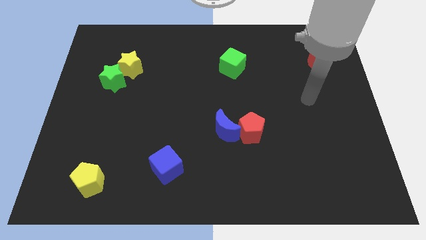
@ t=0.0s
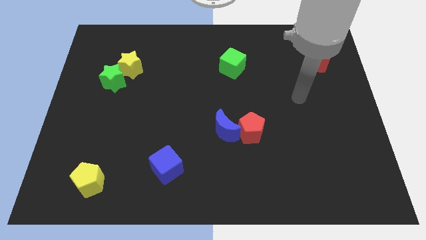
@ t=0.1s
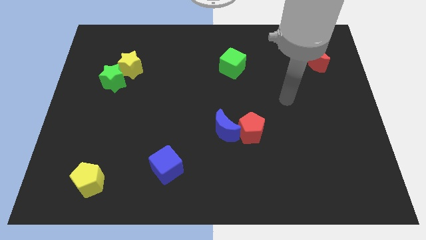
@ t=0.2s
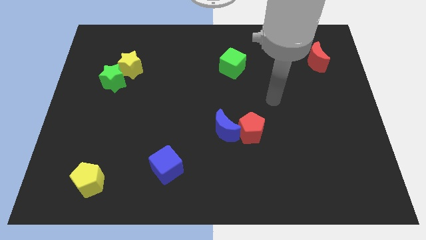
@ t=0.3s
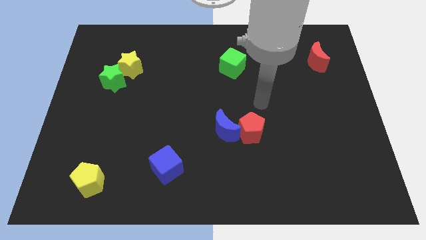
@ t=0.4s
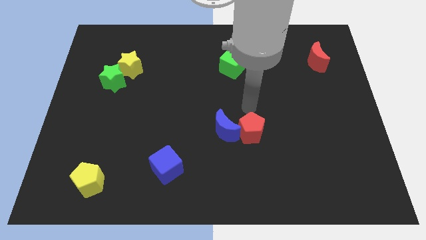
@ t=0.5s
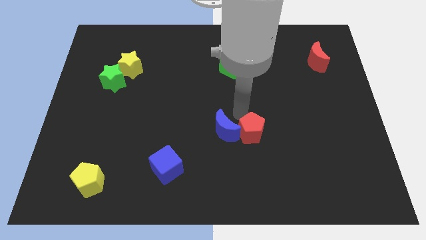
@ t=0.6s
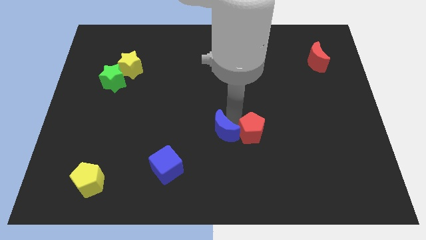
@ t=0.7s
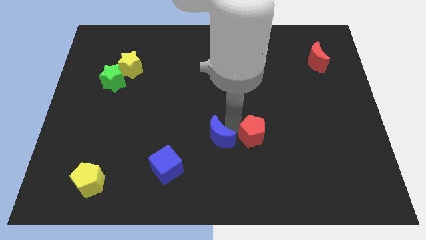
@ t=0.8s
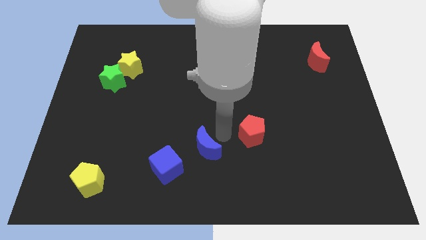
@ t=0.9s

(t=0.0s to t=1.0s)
pull the red pentagon apart from the blue moon

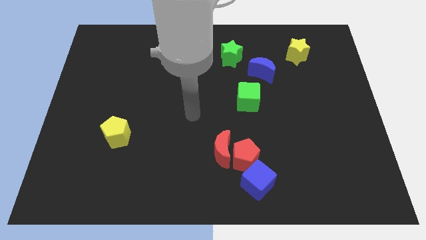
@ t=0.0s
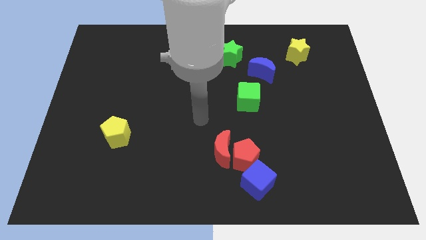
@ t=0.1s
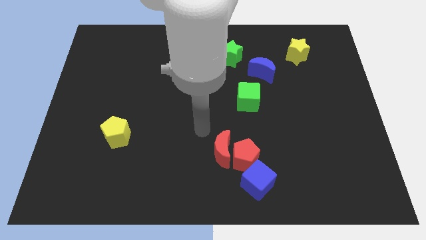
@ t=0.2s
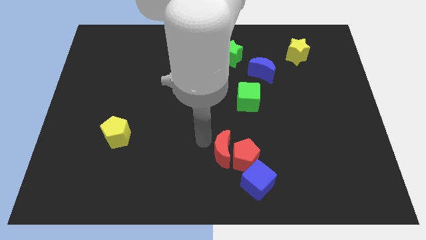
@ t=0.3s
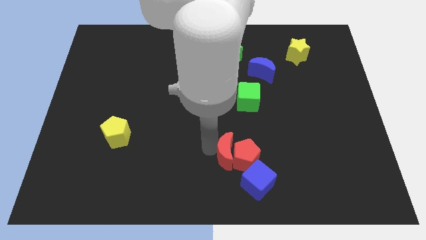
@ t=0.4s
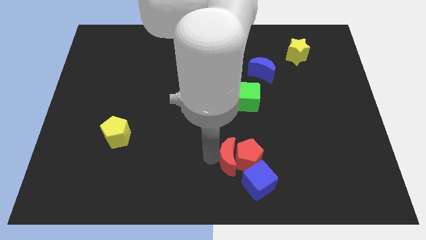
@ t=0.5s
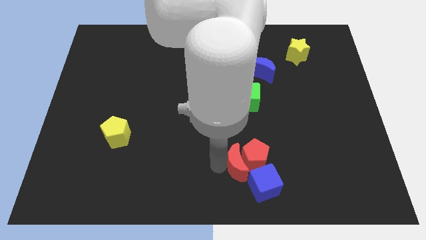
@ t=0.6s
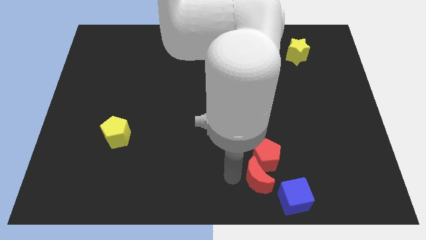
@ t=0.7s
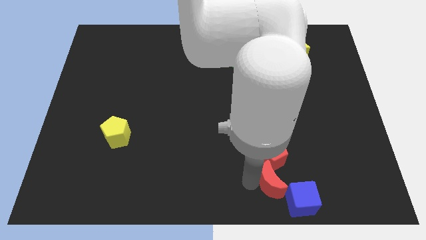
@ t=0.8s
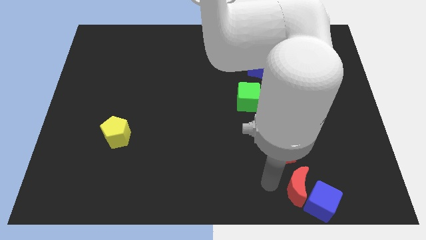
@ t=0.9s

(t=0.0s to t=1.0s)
pull the red pentagon apart from the red moon and blue cube

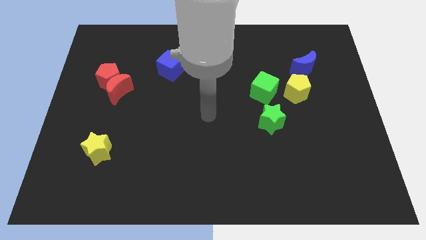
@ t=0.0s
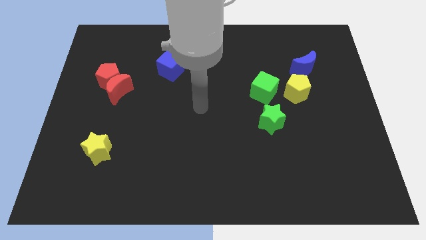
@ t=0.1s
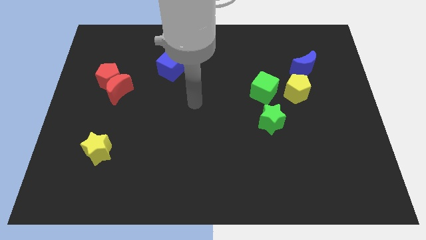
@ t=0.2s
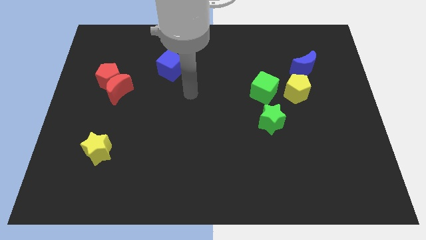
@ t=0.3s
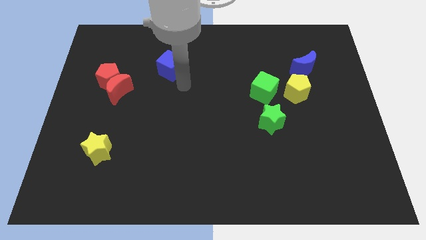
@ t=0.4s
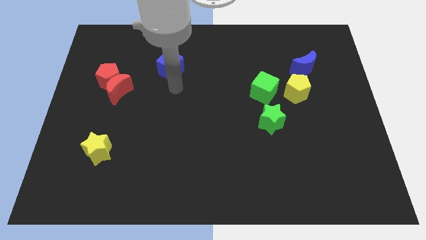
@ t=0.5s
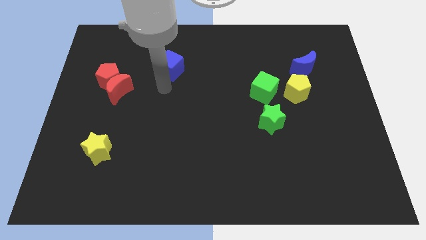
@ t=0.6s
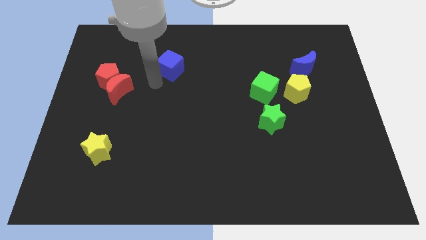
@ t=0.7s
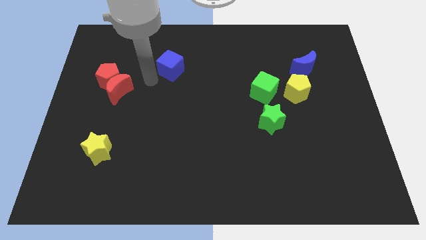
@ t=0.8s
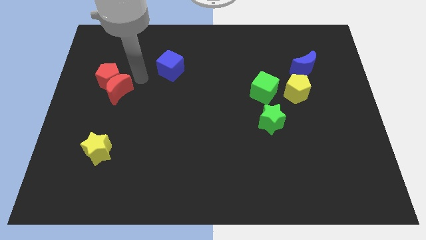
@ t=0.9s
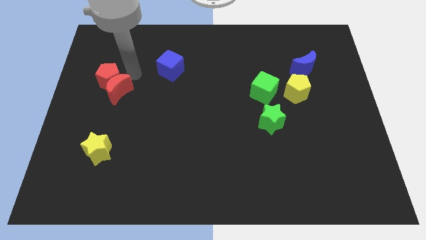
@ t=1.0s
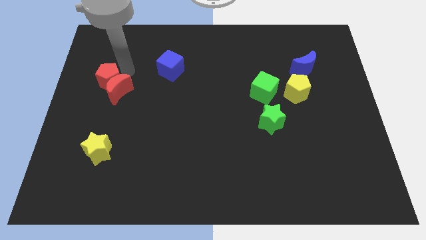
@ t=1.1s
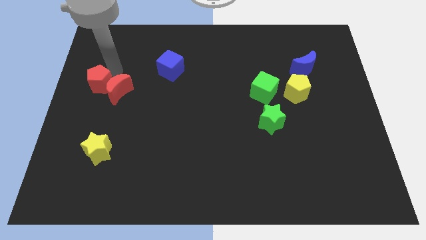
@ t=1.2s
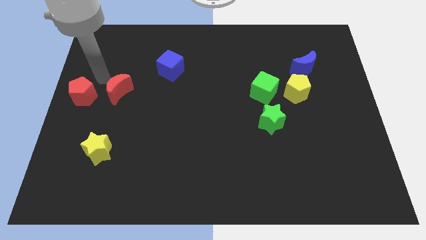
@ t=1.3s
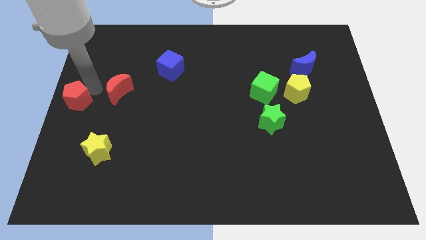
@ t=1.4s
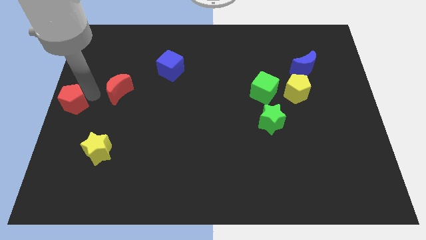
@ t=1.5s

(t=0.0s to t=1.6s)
move the red moon away from the red pentagon

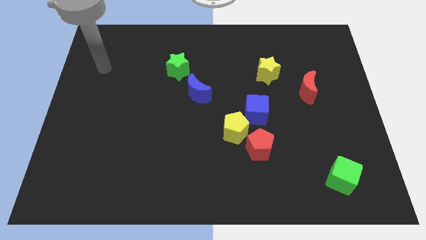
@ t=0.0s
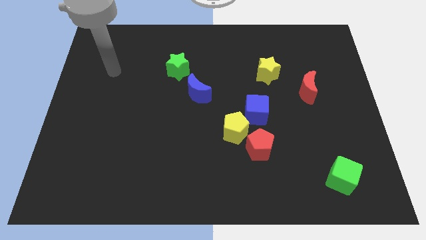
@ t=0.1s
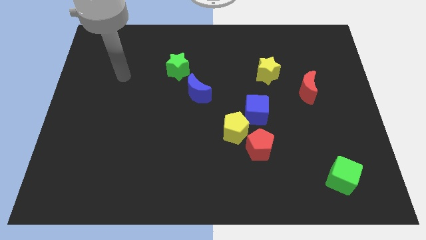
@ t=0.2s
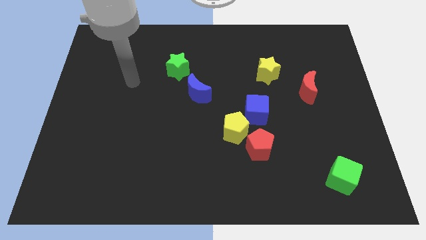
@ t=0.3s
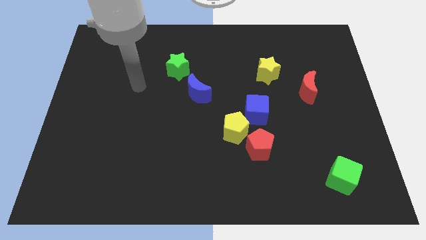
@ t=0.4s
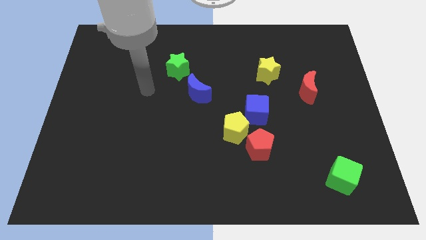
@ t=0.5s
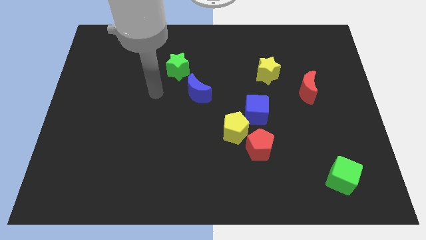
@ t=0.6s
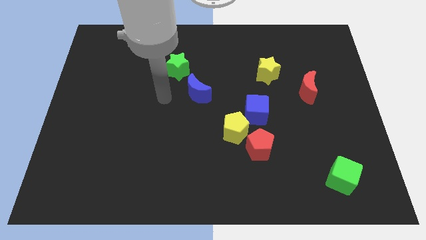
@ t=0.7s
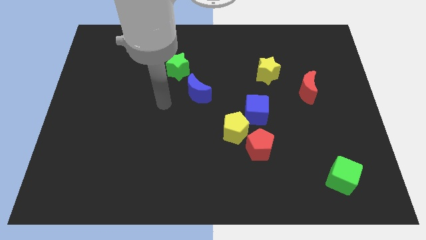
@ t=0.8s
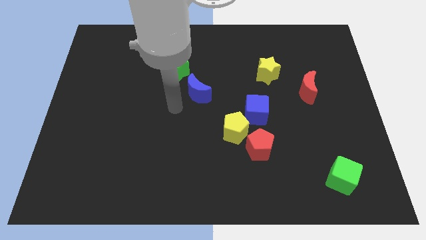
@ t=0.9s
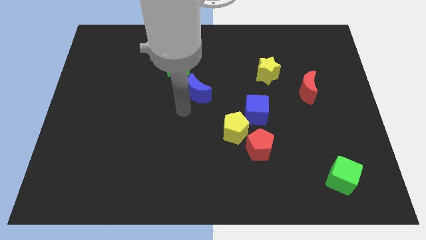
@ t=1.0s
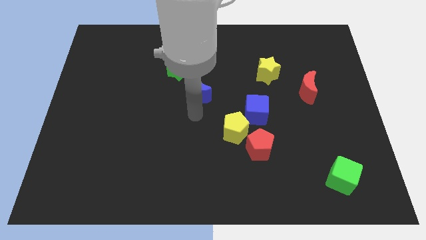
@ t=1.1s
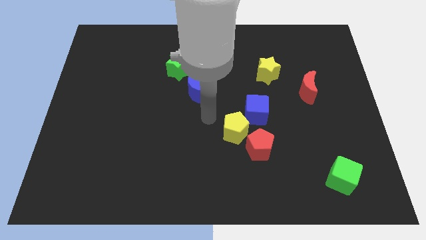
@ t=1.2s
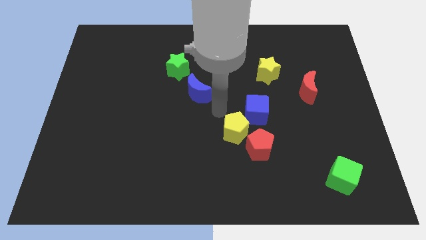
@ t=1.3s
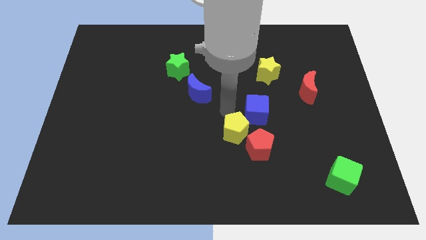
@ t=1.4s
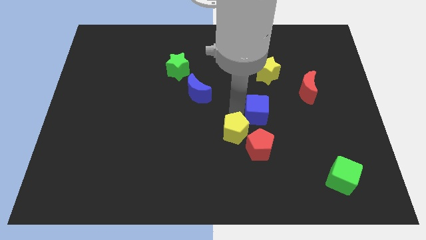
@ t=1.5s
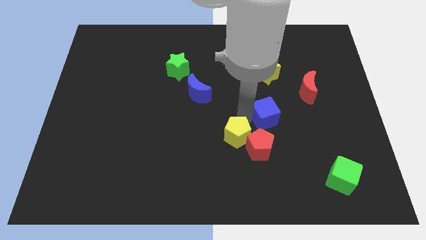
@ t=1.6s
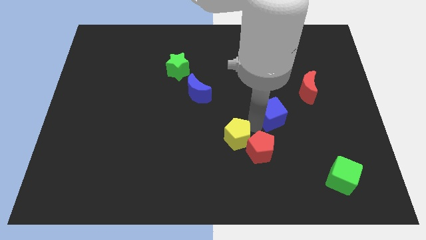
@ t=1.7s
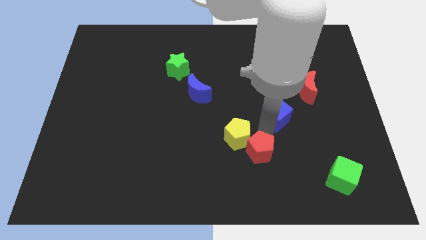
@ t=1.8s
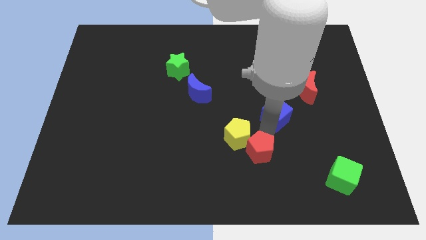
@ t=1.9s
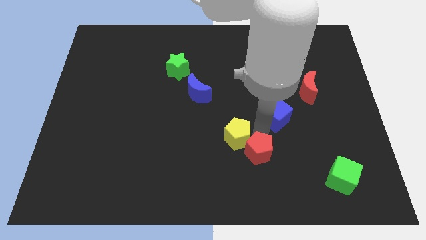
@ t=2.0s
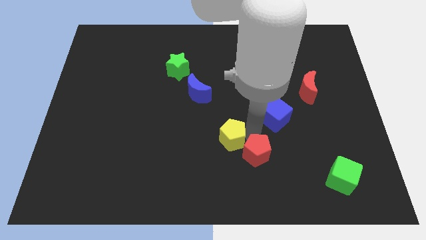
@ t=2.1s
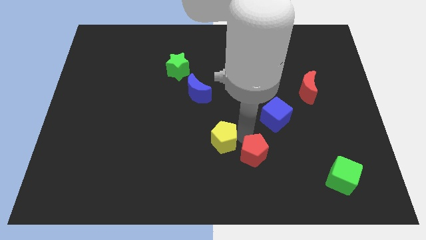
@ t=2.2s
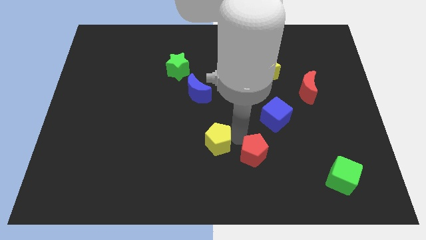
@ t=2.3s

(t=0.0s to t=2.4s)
pull the yellow pentagon apart from the red pentagon and blue cube

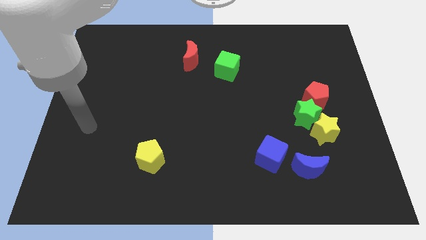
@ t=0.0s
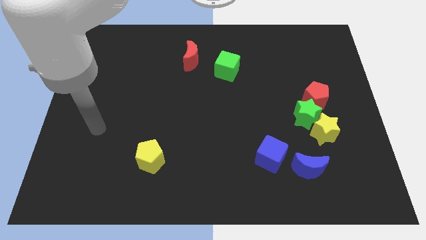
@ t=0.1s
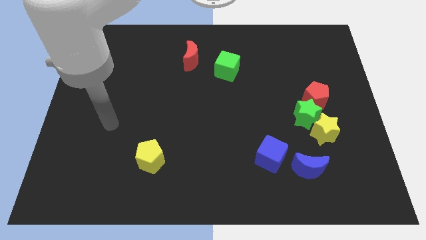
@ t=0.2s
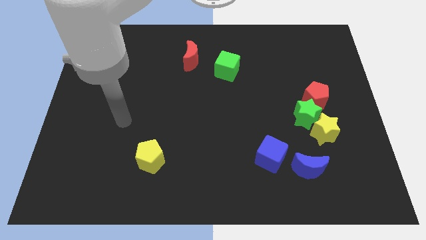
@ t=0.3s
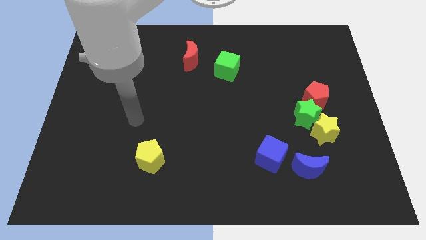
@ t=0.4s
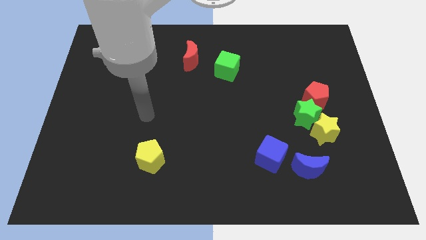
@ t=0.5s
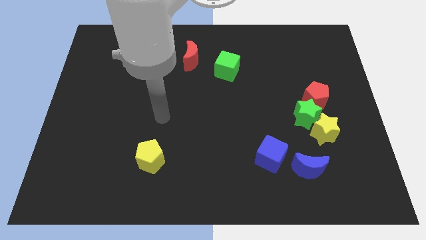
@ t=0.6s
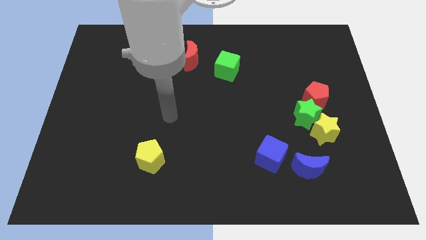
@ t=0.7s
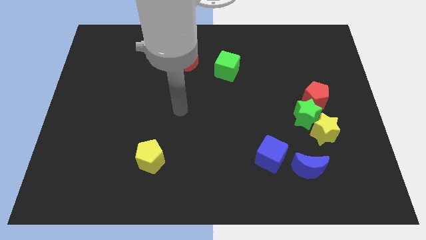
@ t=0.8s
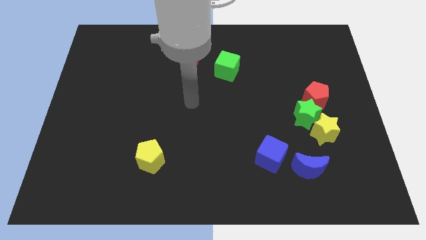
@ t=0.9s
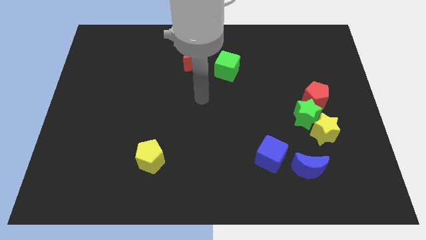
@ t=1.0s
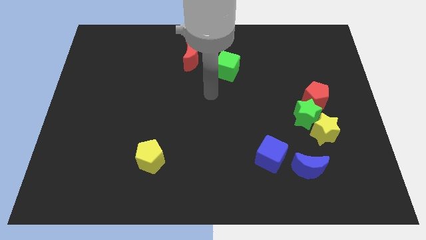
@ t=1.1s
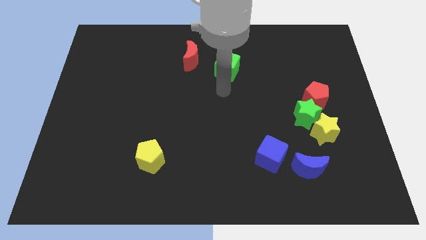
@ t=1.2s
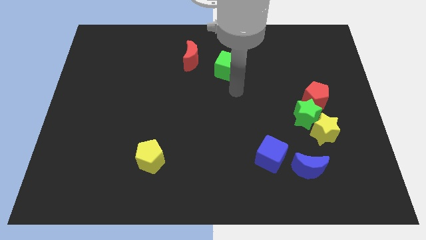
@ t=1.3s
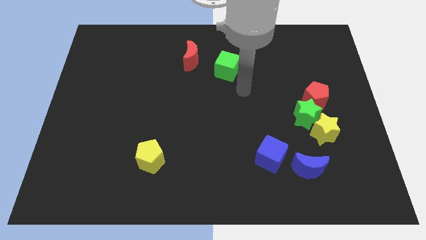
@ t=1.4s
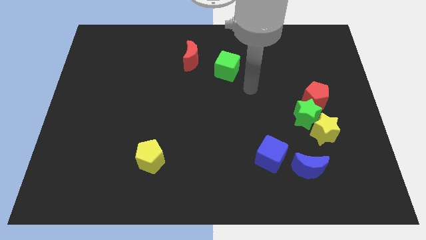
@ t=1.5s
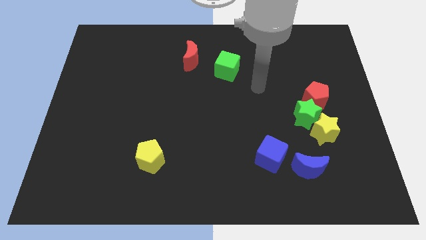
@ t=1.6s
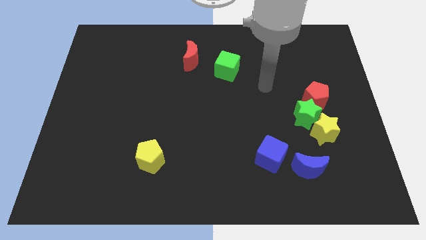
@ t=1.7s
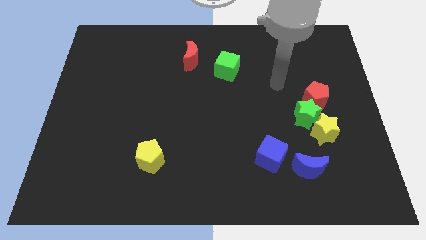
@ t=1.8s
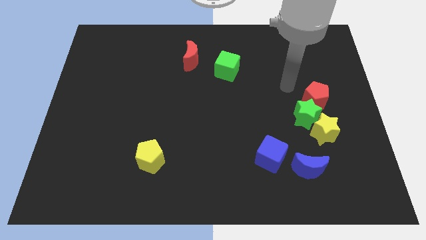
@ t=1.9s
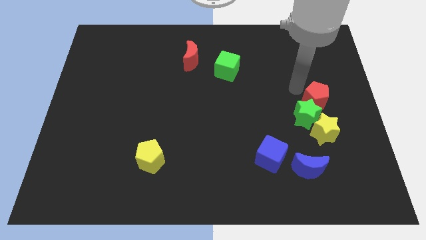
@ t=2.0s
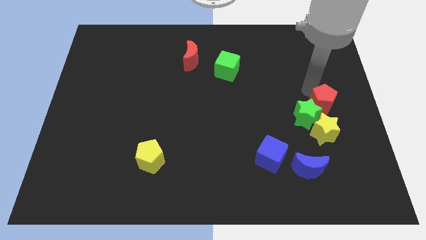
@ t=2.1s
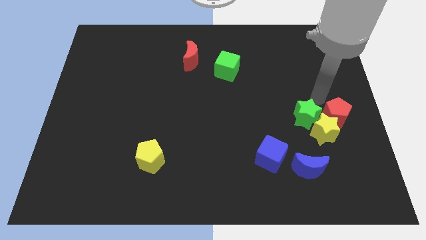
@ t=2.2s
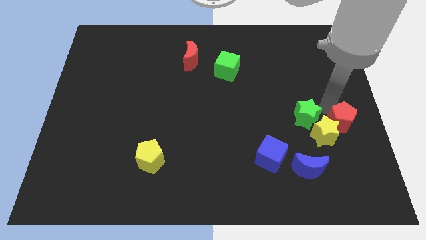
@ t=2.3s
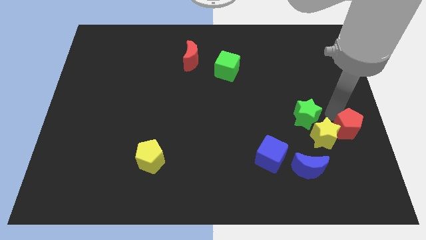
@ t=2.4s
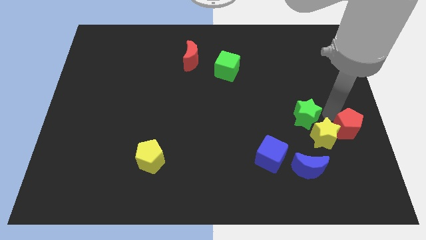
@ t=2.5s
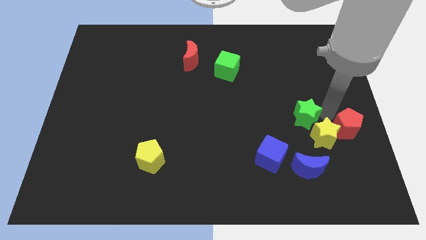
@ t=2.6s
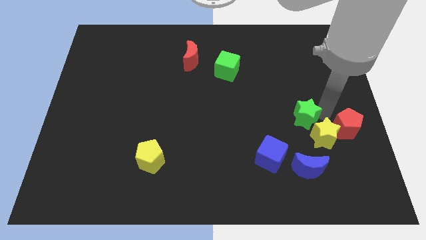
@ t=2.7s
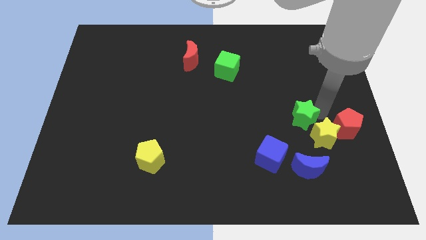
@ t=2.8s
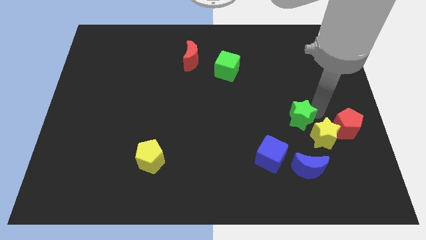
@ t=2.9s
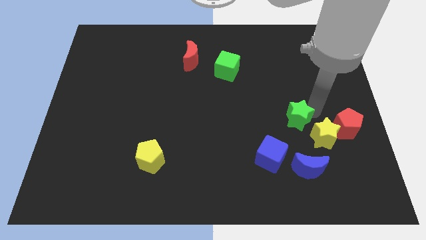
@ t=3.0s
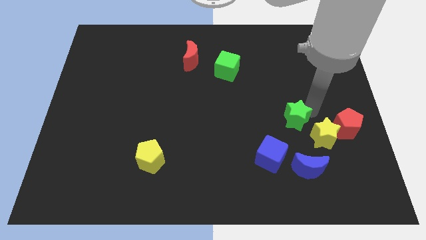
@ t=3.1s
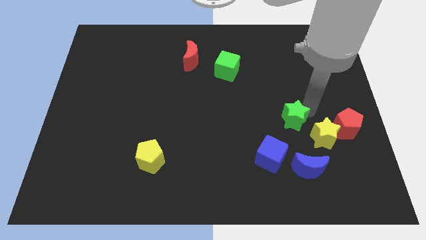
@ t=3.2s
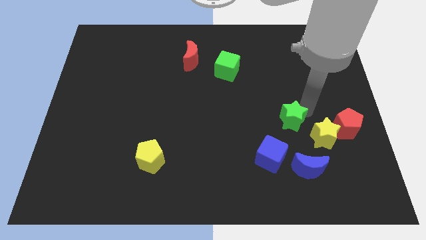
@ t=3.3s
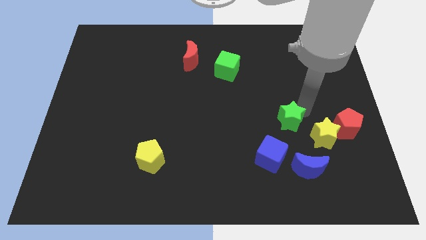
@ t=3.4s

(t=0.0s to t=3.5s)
pull the green star apart from the yellow star and red pentagon

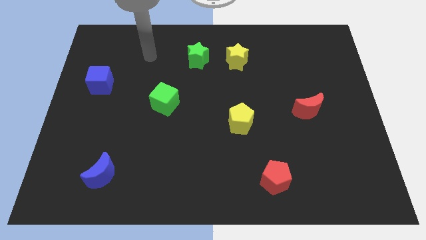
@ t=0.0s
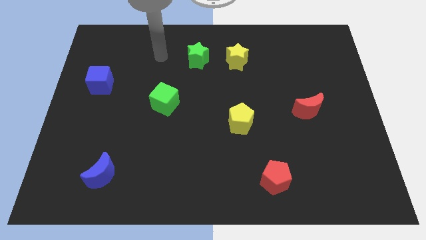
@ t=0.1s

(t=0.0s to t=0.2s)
pull the green star apart from the yellow star
